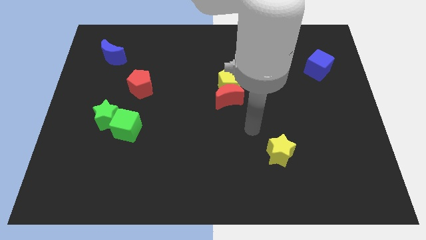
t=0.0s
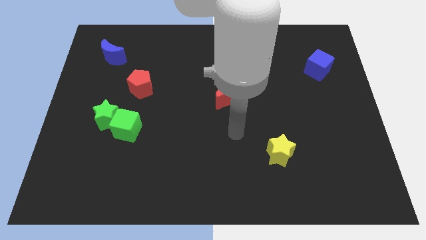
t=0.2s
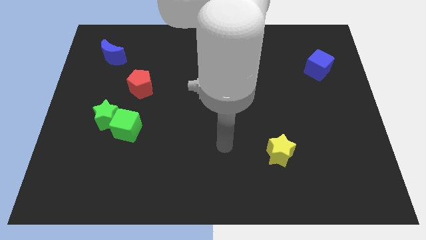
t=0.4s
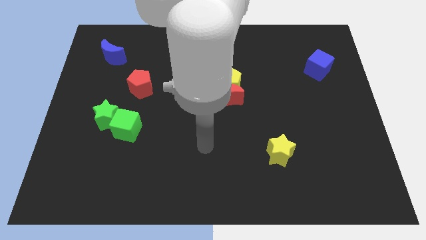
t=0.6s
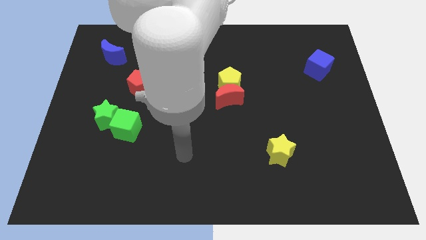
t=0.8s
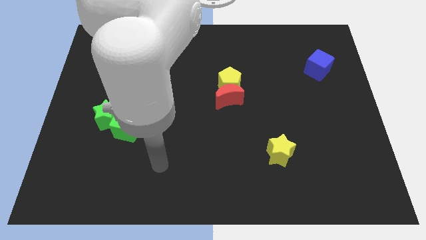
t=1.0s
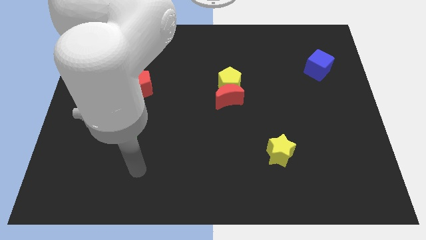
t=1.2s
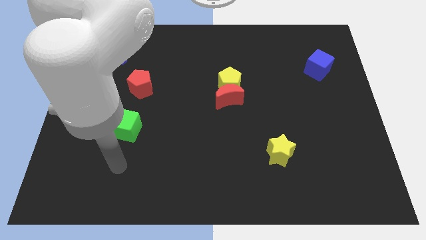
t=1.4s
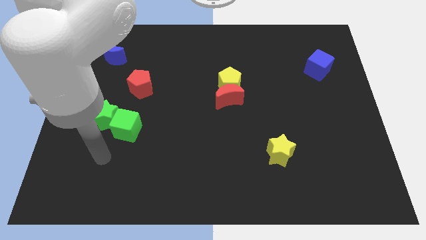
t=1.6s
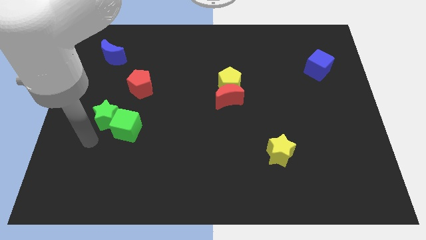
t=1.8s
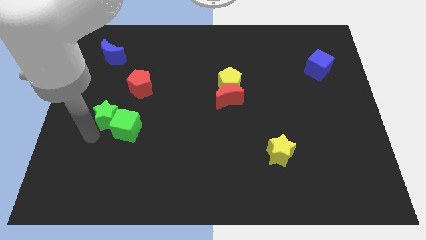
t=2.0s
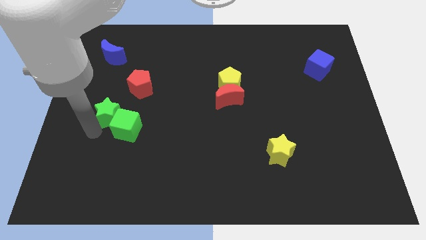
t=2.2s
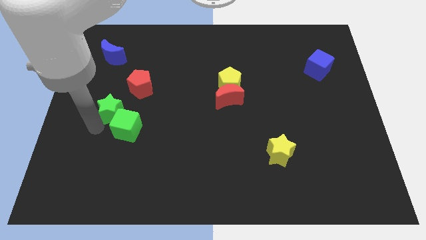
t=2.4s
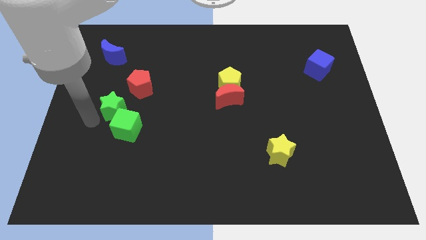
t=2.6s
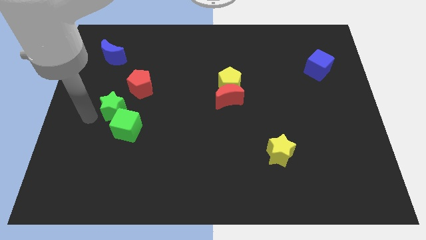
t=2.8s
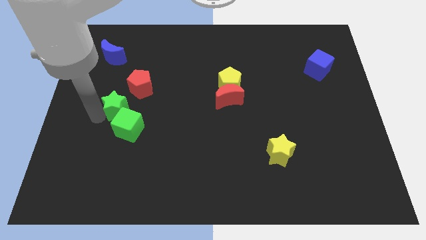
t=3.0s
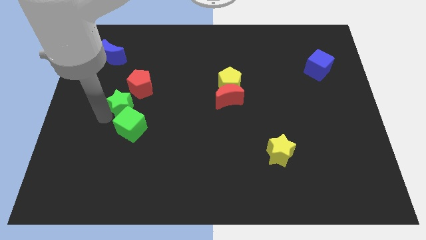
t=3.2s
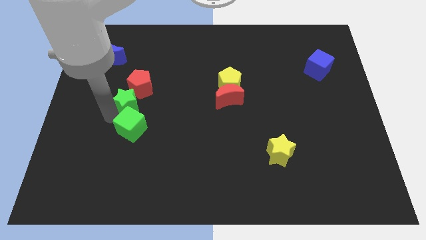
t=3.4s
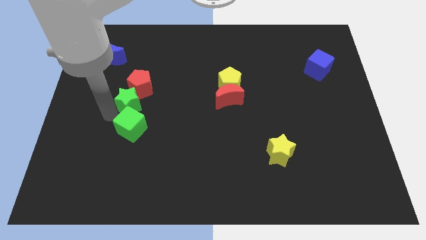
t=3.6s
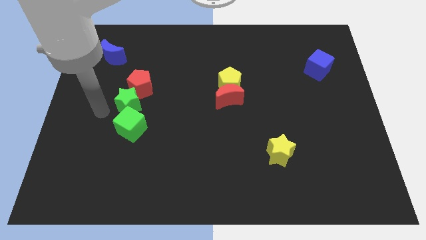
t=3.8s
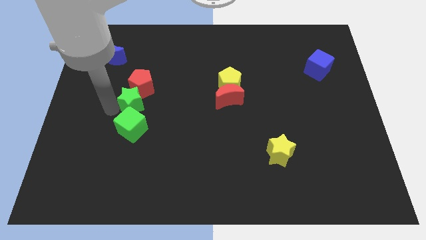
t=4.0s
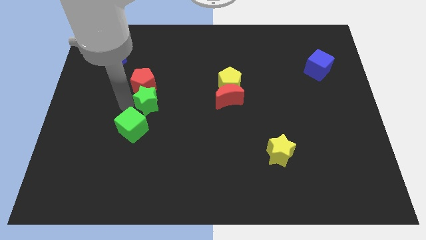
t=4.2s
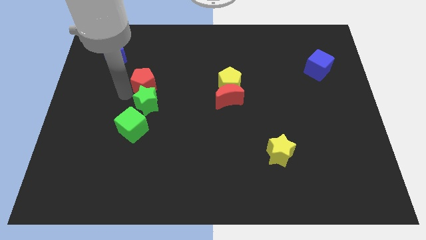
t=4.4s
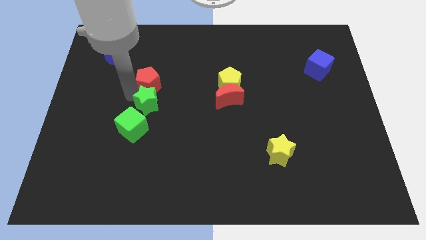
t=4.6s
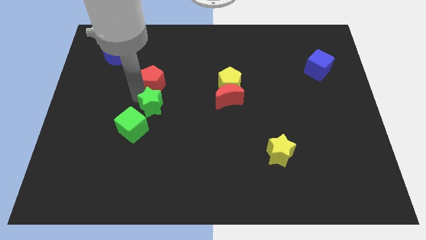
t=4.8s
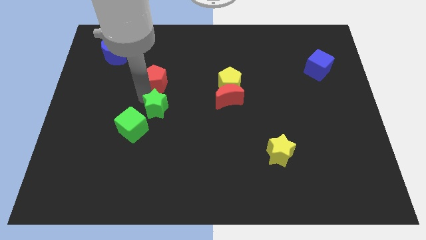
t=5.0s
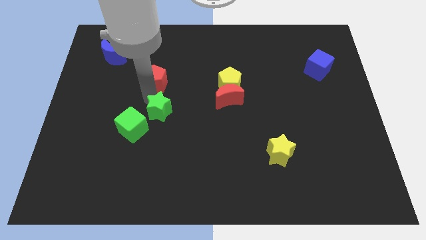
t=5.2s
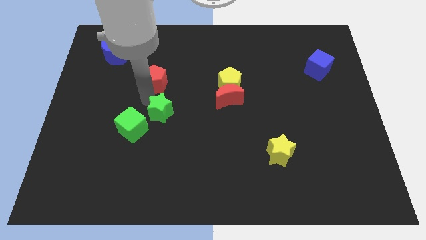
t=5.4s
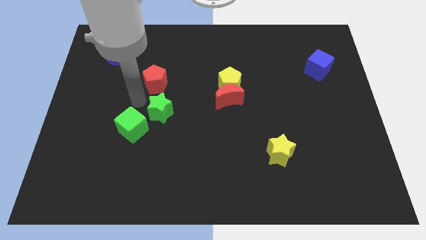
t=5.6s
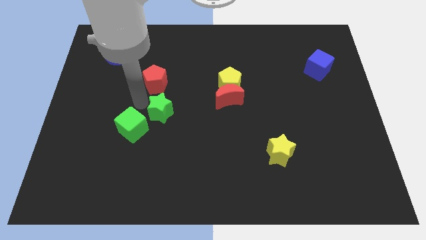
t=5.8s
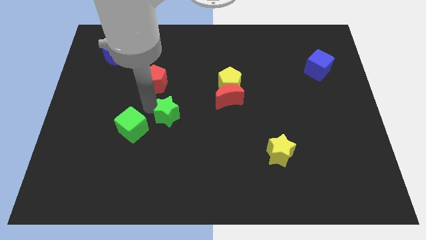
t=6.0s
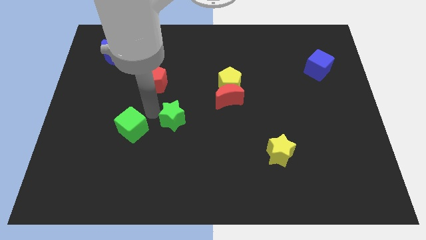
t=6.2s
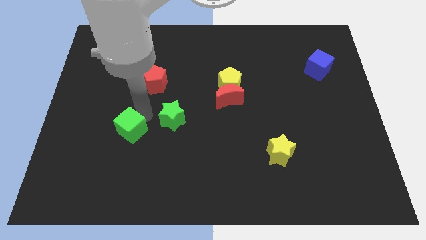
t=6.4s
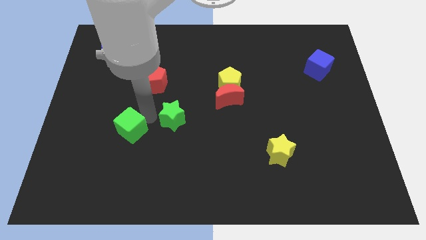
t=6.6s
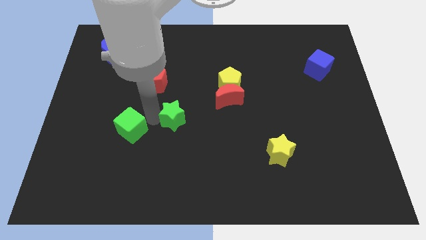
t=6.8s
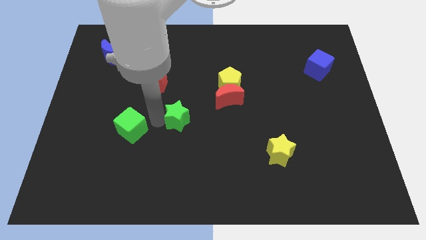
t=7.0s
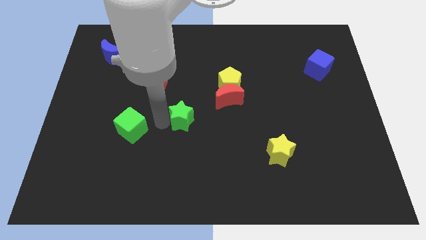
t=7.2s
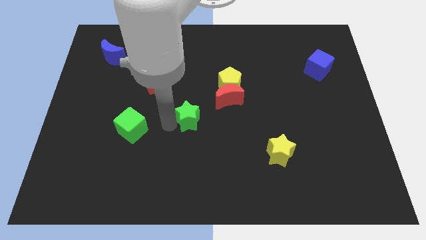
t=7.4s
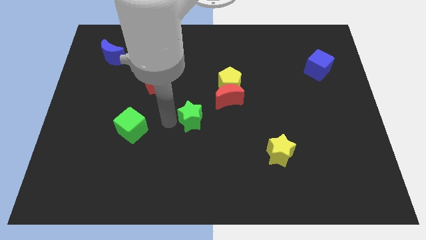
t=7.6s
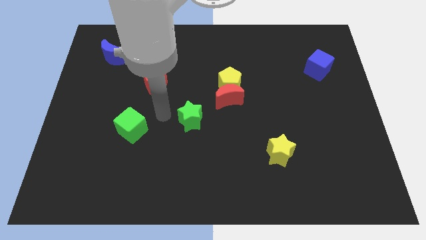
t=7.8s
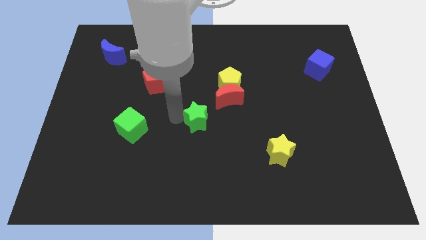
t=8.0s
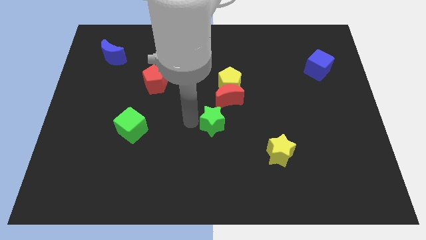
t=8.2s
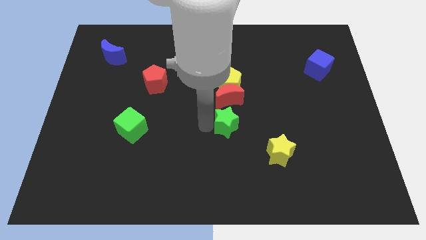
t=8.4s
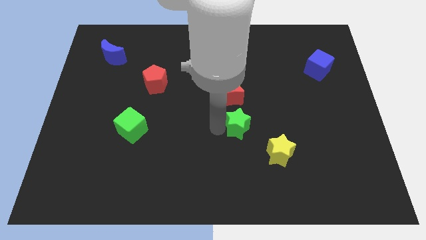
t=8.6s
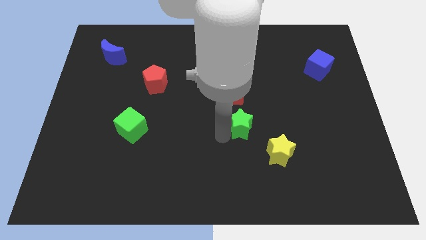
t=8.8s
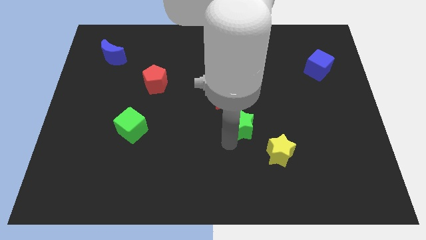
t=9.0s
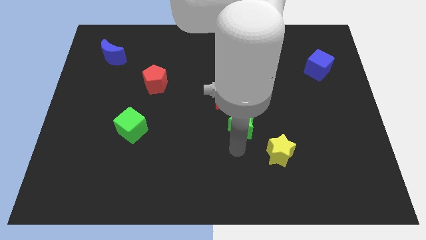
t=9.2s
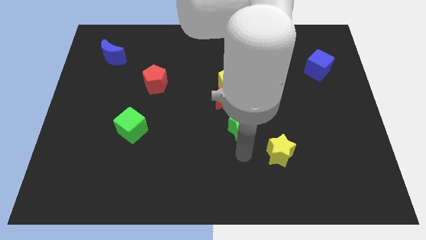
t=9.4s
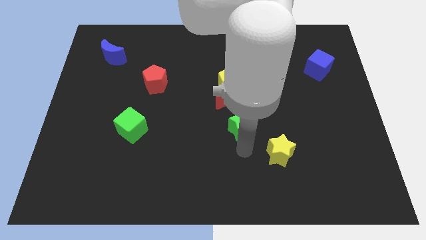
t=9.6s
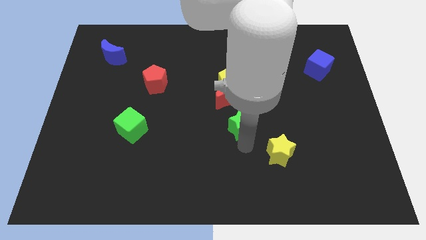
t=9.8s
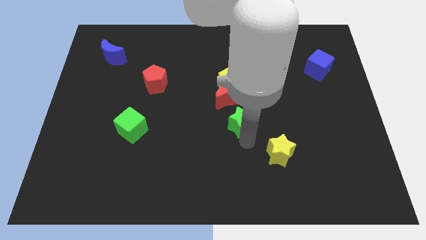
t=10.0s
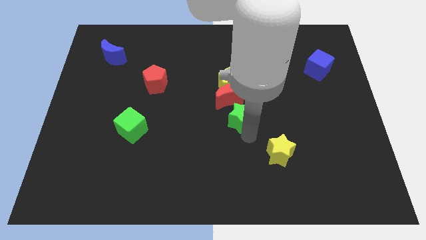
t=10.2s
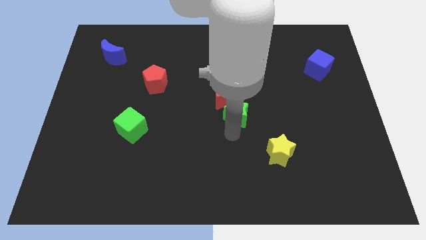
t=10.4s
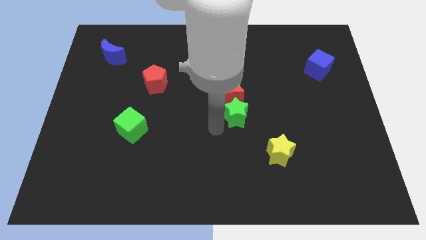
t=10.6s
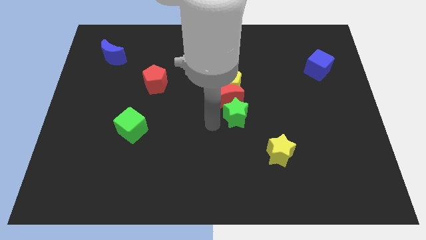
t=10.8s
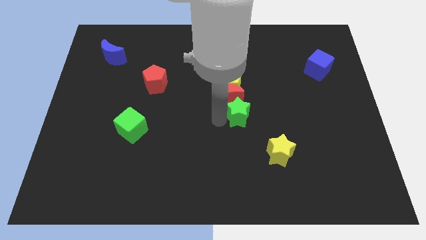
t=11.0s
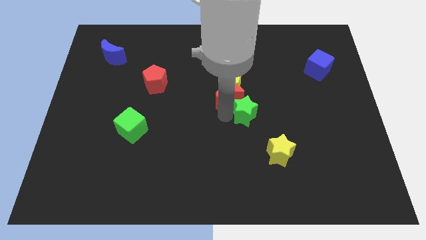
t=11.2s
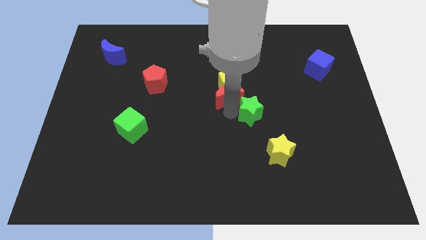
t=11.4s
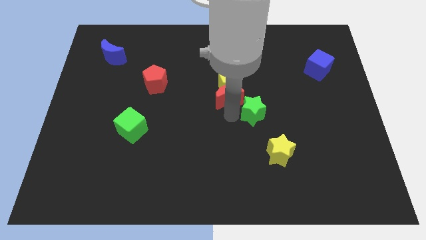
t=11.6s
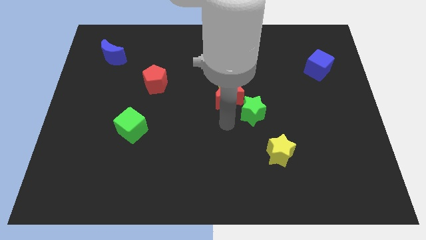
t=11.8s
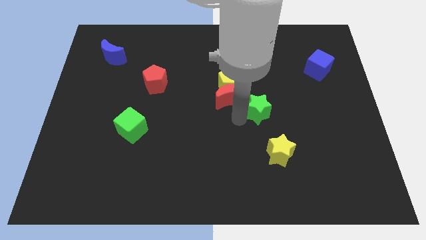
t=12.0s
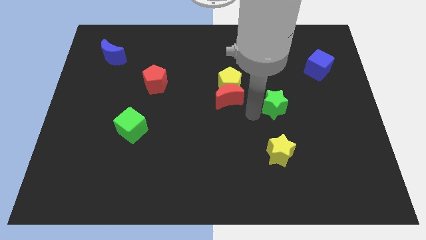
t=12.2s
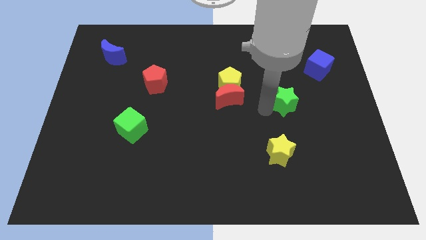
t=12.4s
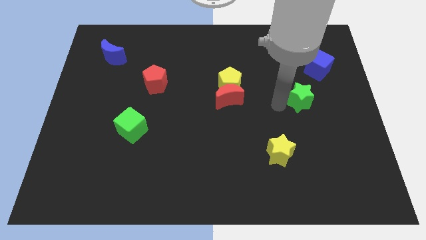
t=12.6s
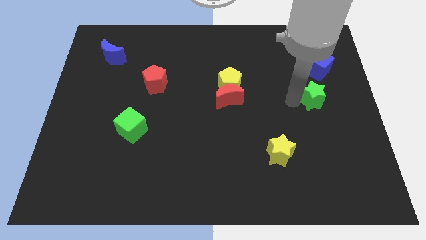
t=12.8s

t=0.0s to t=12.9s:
push the green star to the bottom of the blue cube

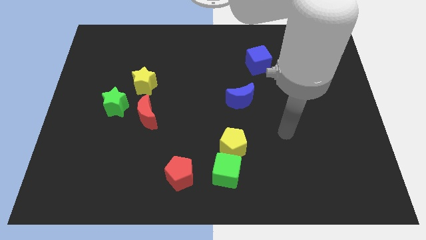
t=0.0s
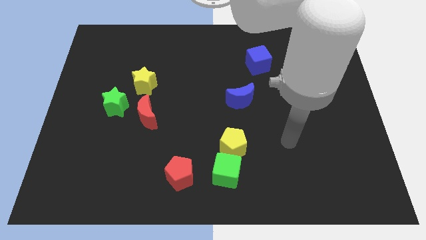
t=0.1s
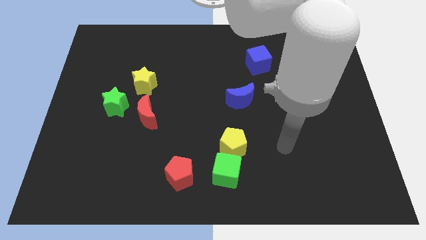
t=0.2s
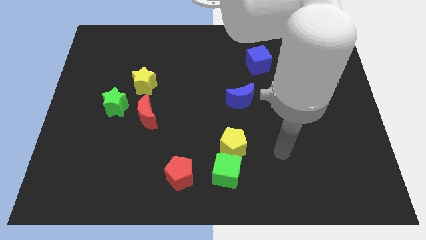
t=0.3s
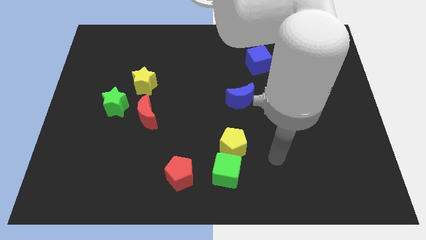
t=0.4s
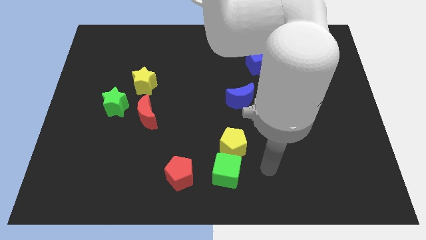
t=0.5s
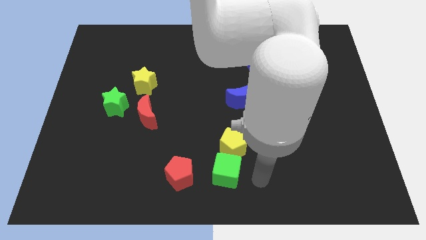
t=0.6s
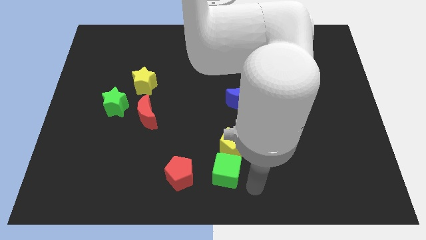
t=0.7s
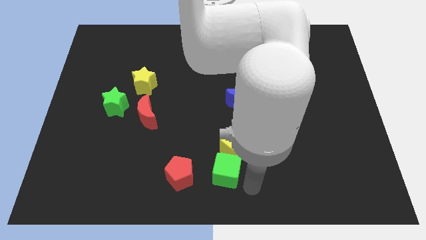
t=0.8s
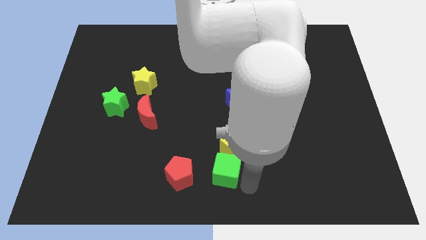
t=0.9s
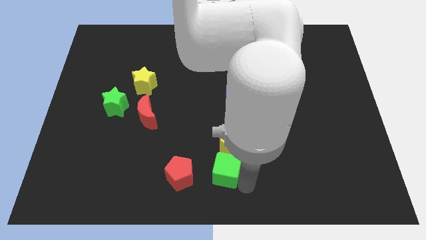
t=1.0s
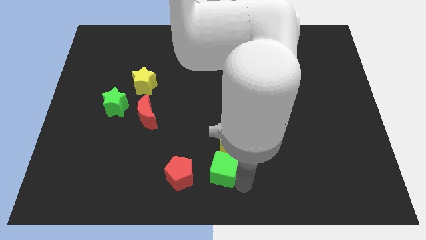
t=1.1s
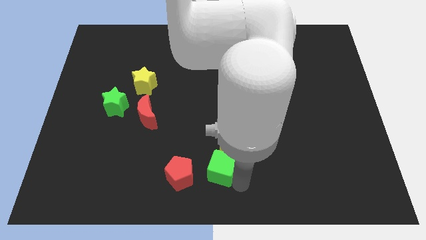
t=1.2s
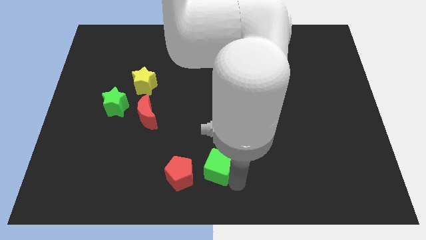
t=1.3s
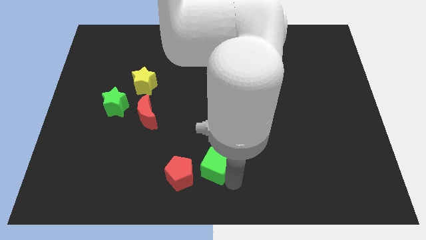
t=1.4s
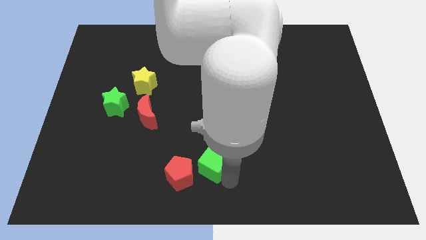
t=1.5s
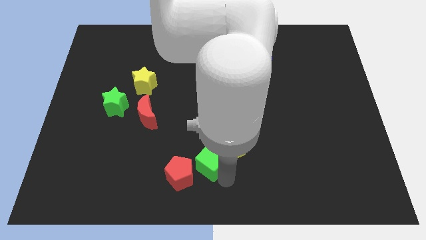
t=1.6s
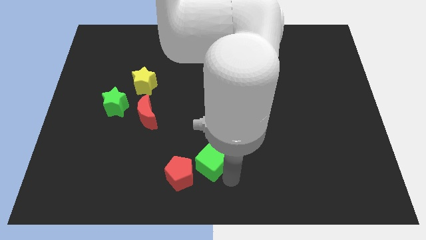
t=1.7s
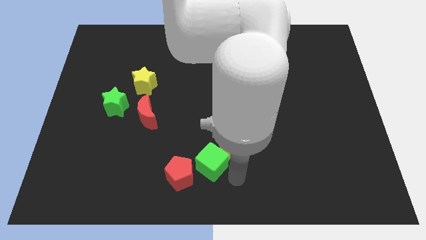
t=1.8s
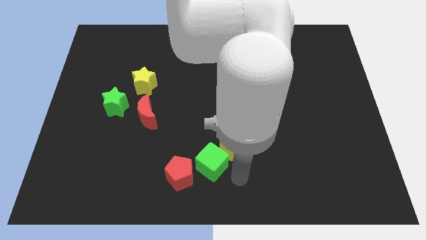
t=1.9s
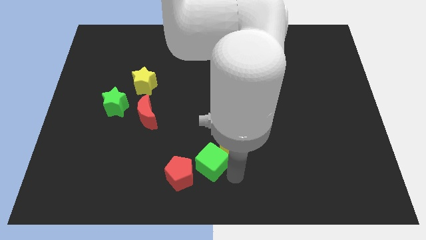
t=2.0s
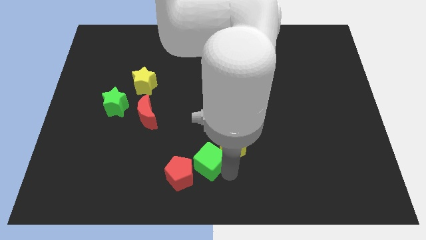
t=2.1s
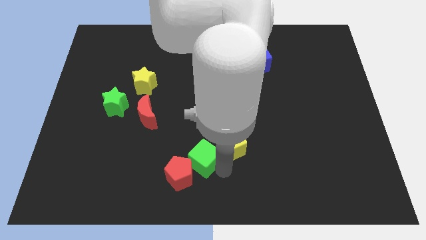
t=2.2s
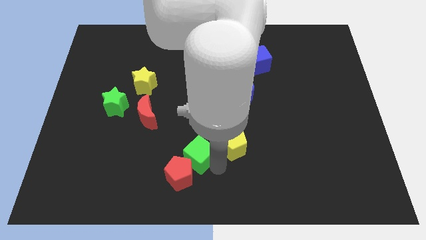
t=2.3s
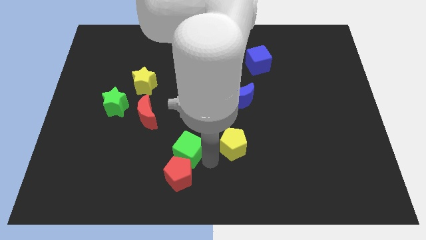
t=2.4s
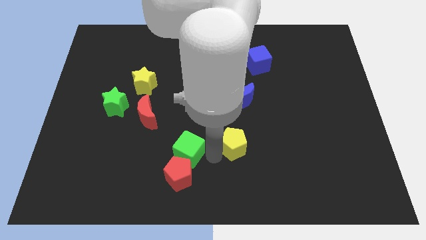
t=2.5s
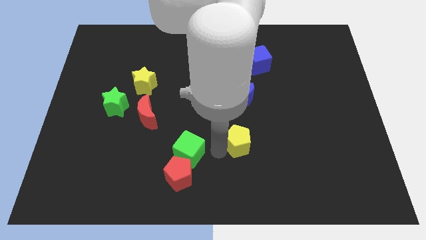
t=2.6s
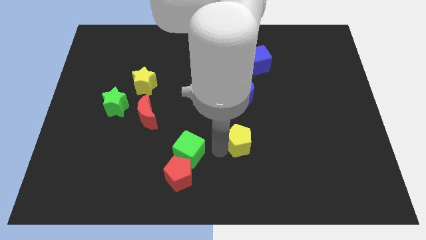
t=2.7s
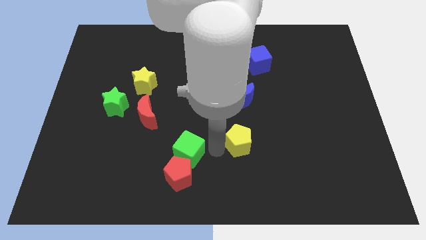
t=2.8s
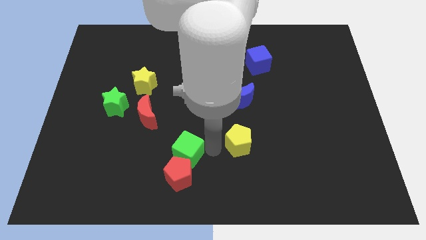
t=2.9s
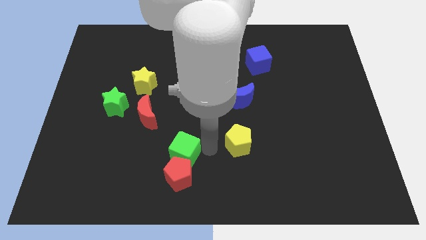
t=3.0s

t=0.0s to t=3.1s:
move the green cube diagonally up and to the left of the red pentagon
